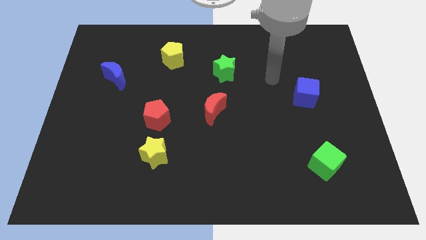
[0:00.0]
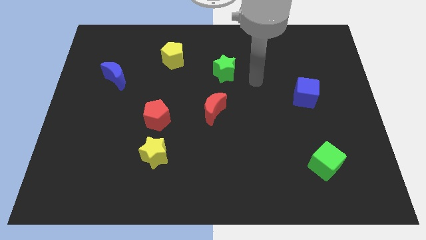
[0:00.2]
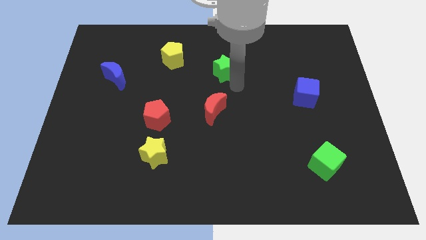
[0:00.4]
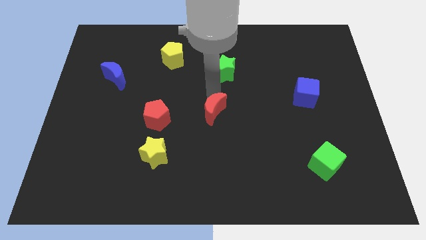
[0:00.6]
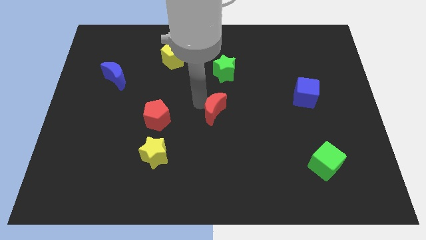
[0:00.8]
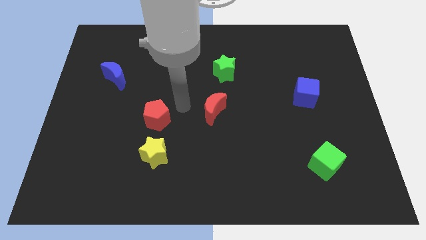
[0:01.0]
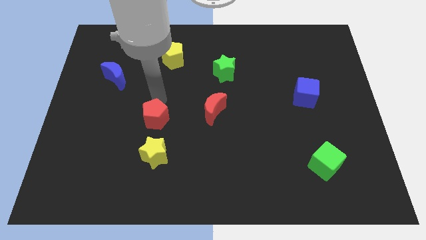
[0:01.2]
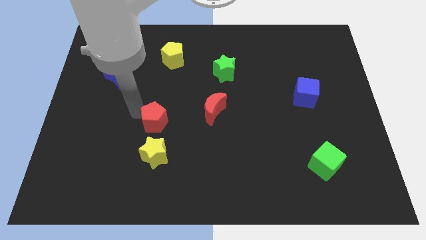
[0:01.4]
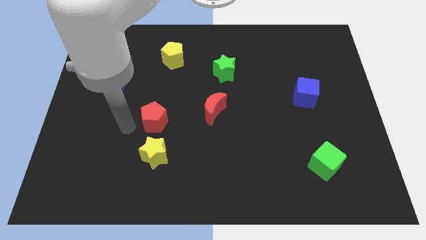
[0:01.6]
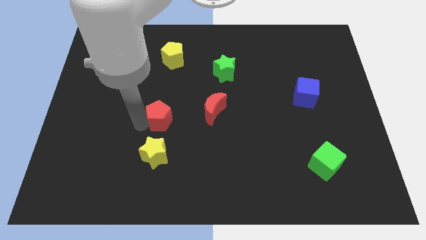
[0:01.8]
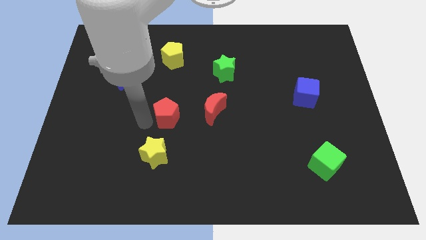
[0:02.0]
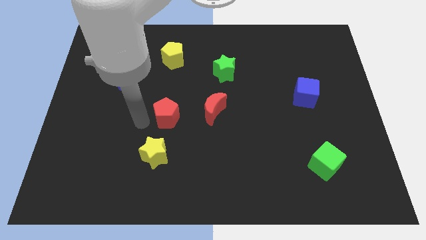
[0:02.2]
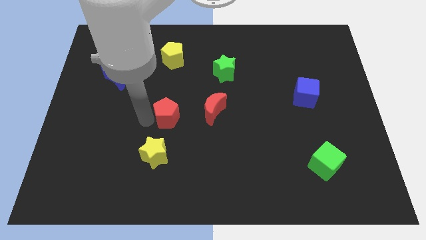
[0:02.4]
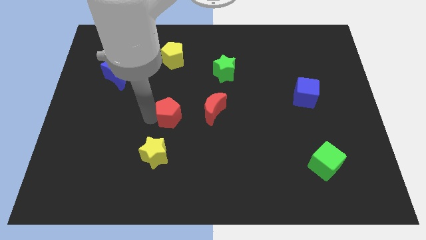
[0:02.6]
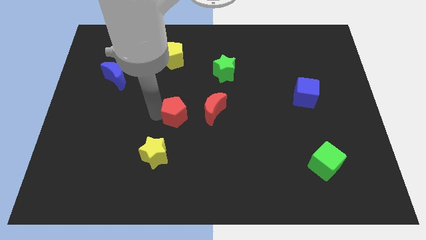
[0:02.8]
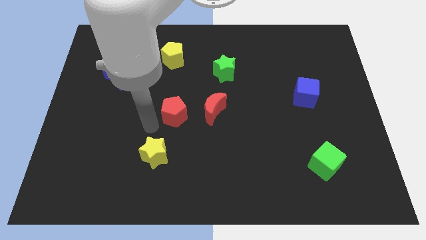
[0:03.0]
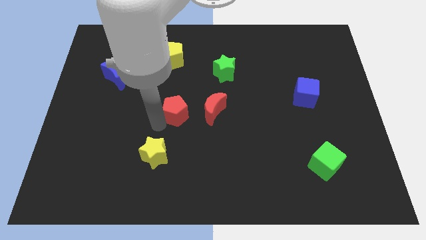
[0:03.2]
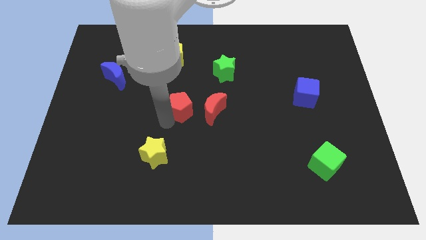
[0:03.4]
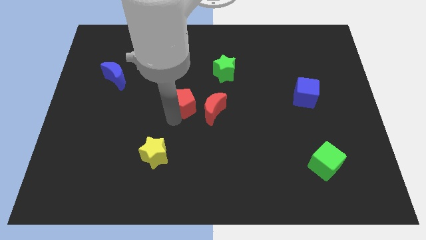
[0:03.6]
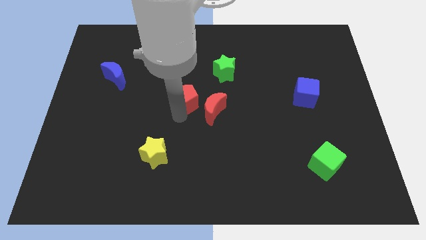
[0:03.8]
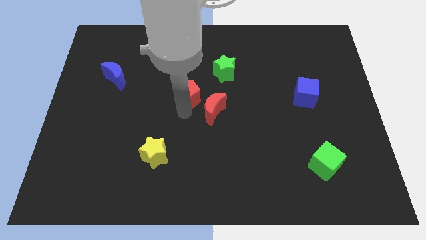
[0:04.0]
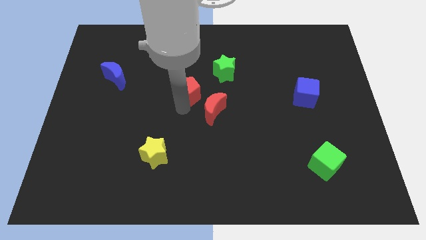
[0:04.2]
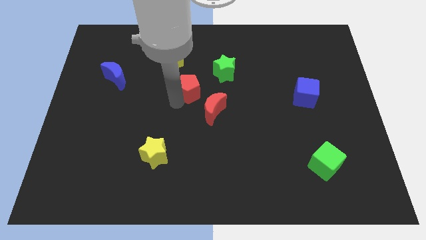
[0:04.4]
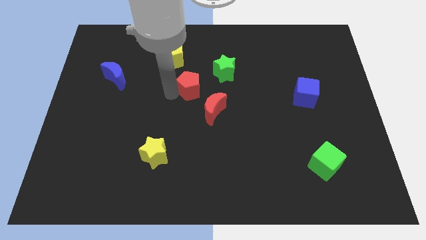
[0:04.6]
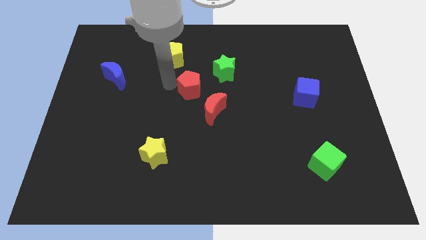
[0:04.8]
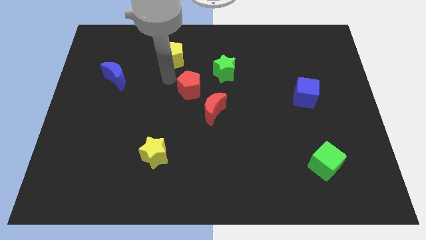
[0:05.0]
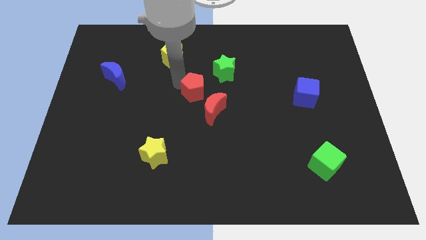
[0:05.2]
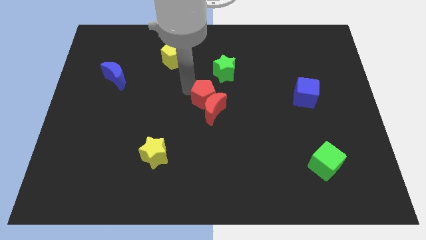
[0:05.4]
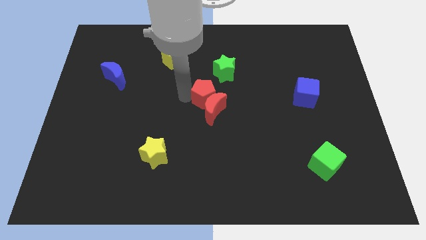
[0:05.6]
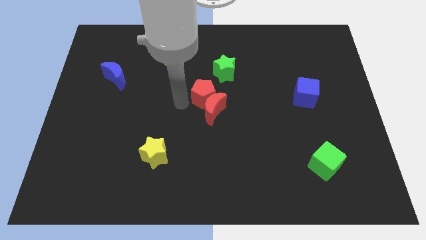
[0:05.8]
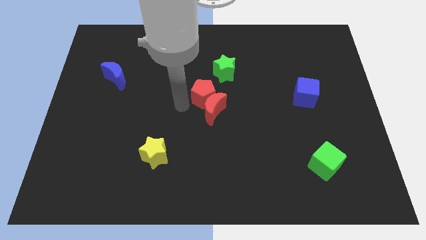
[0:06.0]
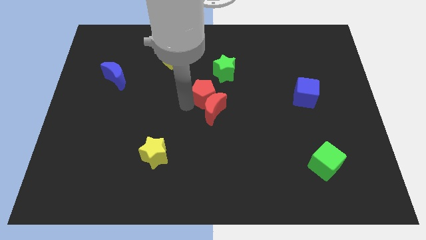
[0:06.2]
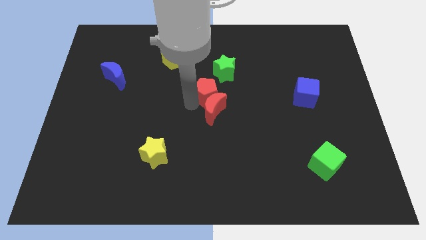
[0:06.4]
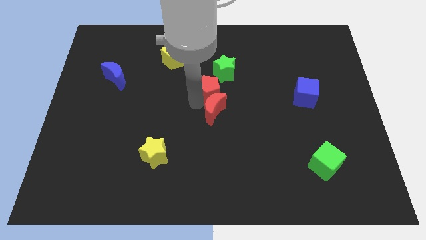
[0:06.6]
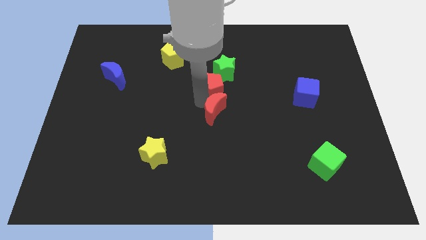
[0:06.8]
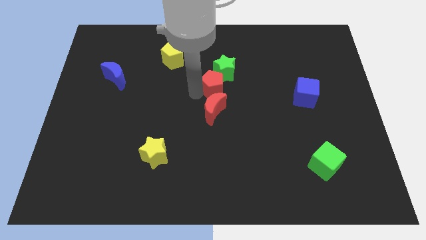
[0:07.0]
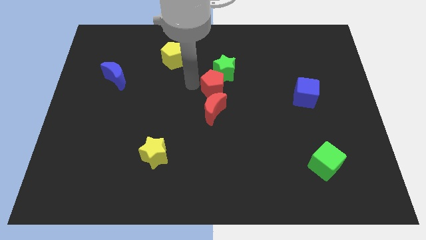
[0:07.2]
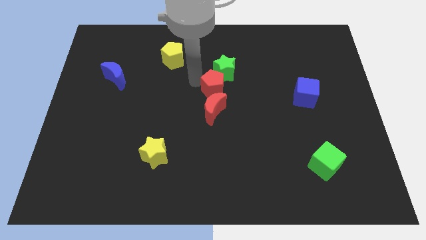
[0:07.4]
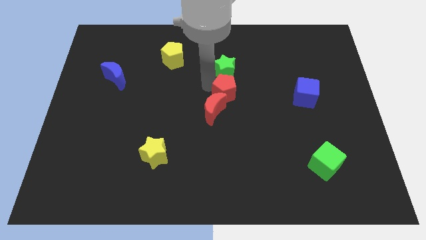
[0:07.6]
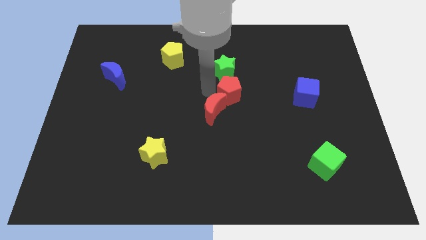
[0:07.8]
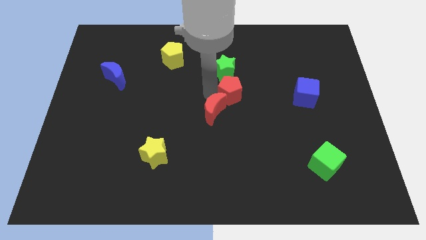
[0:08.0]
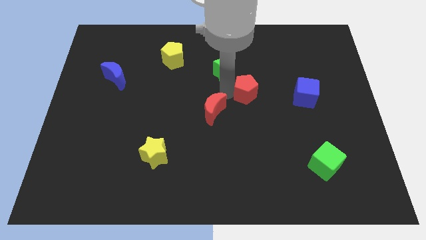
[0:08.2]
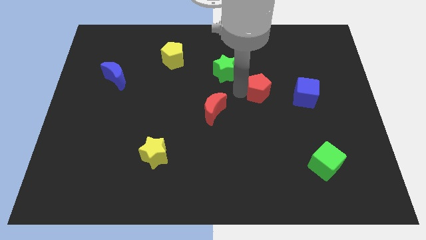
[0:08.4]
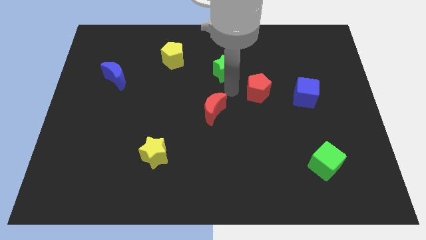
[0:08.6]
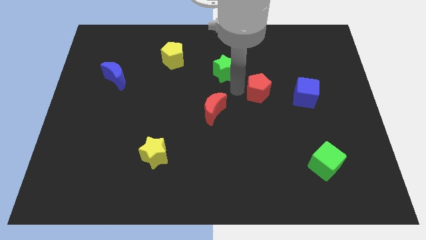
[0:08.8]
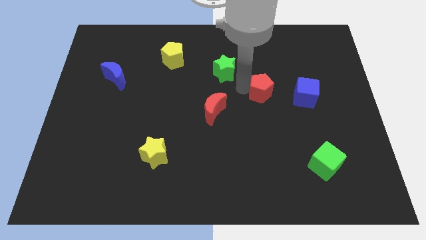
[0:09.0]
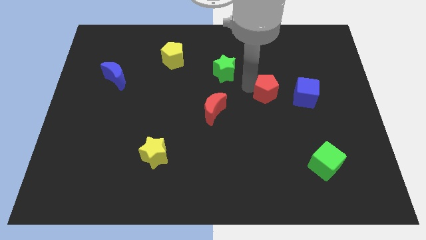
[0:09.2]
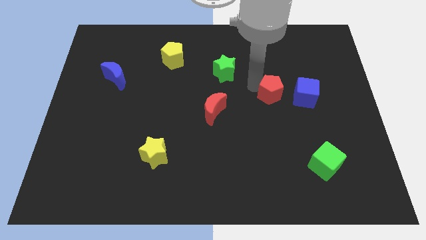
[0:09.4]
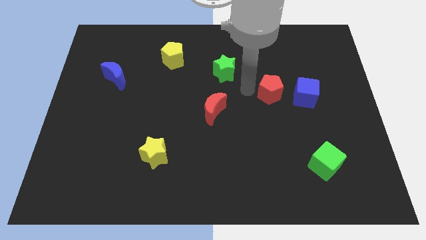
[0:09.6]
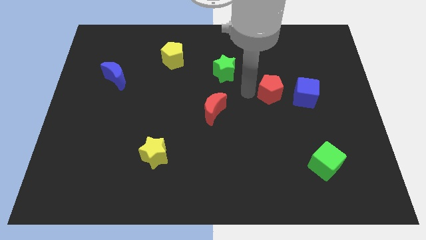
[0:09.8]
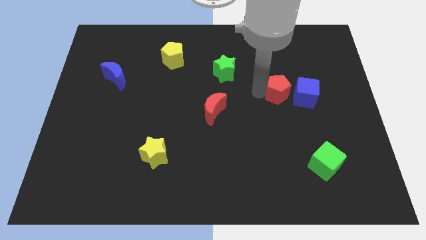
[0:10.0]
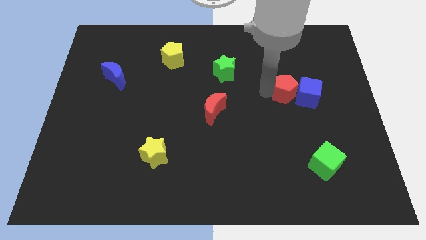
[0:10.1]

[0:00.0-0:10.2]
slide the red pentagon next to the blue cube

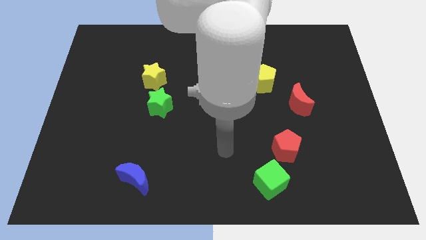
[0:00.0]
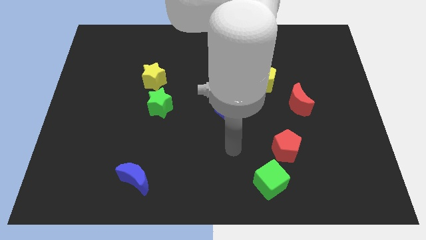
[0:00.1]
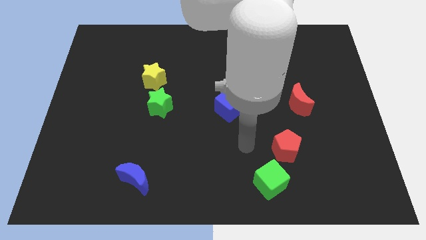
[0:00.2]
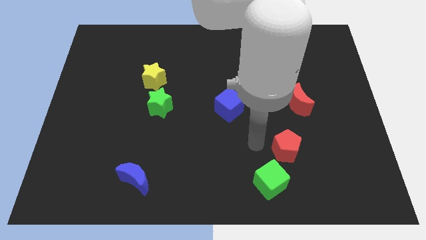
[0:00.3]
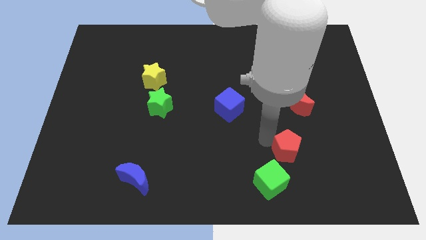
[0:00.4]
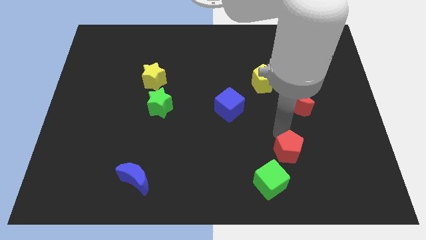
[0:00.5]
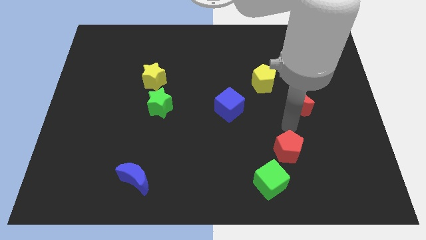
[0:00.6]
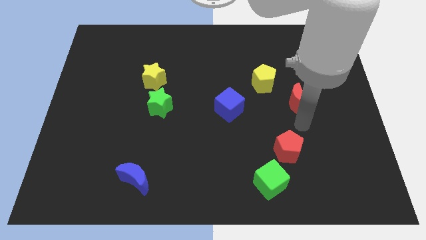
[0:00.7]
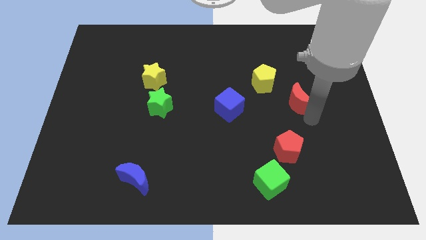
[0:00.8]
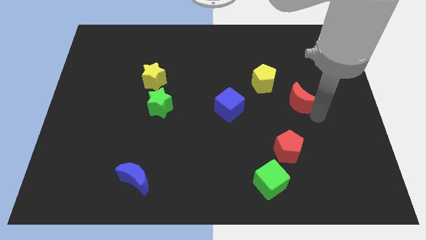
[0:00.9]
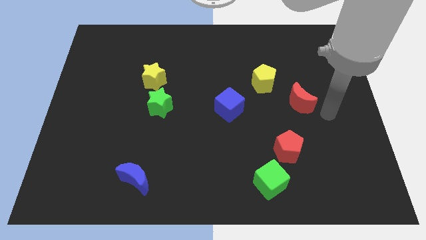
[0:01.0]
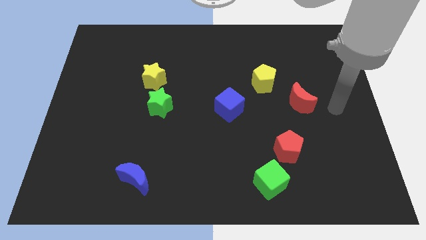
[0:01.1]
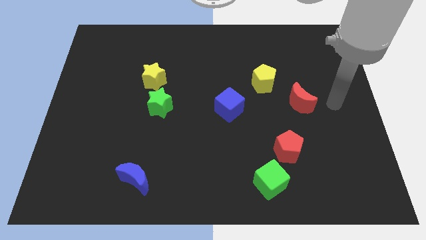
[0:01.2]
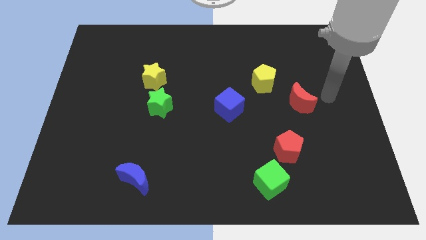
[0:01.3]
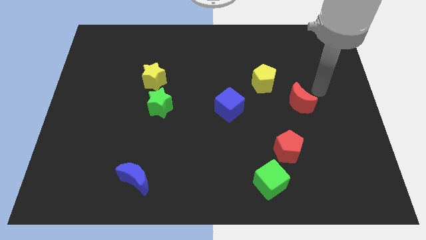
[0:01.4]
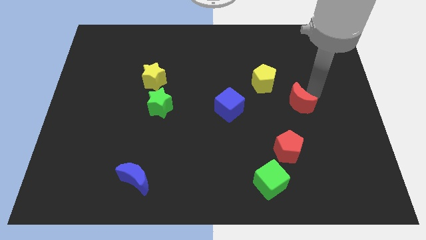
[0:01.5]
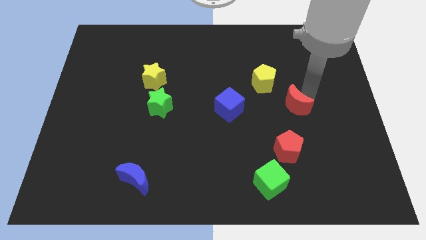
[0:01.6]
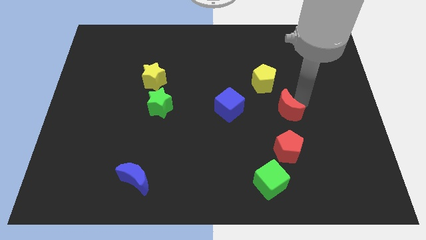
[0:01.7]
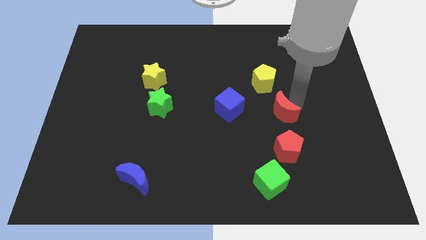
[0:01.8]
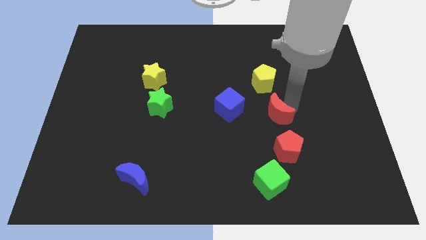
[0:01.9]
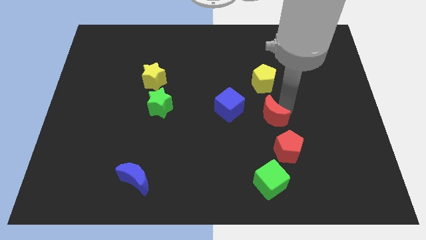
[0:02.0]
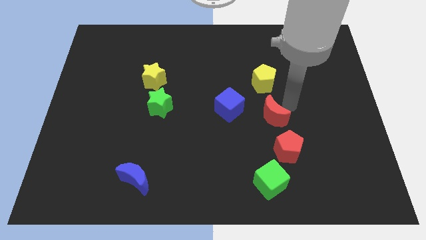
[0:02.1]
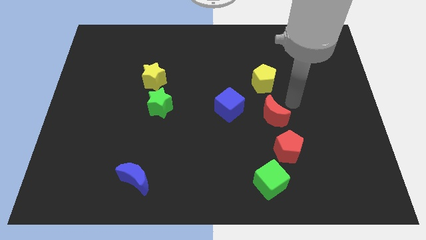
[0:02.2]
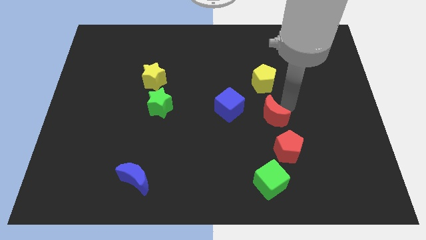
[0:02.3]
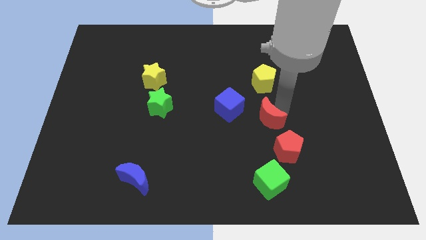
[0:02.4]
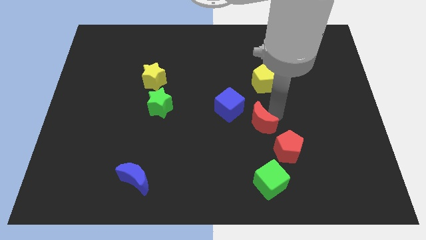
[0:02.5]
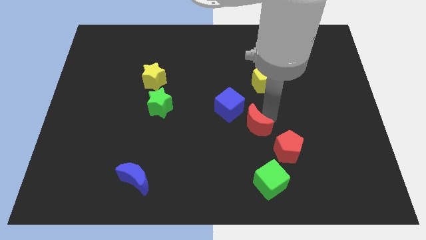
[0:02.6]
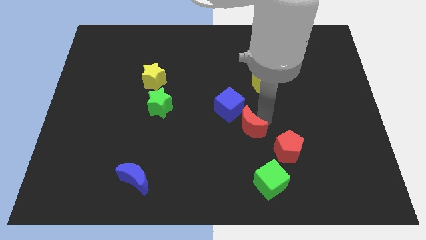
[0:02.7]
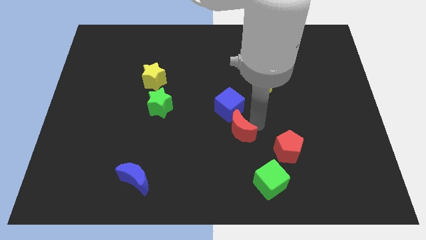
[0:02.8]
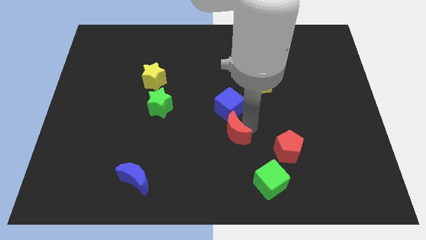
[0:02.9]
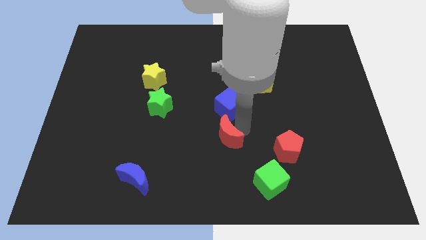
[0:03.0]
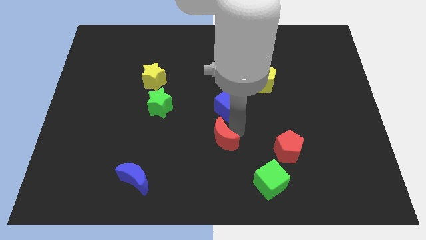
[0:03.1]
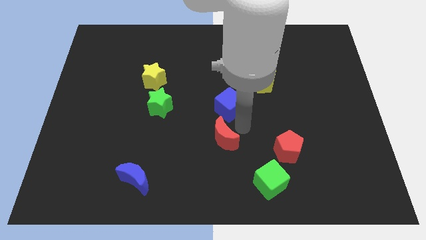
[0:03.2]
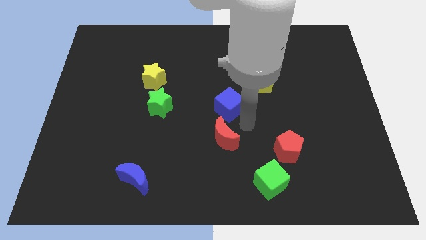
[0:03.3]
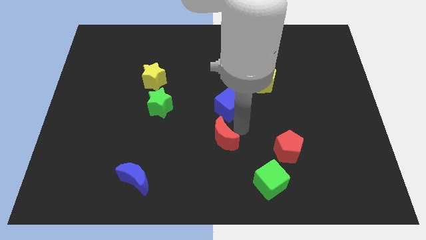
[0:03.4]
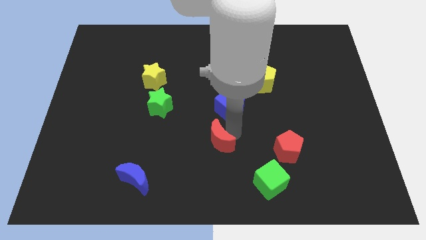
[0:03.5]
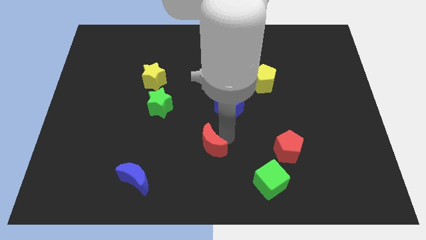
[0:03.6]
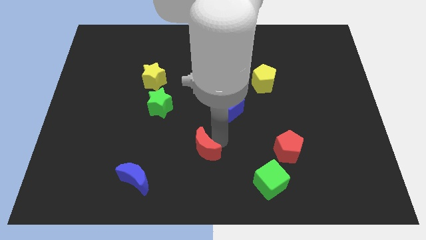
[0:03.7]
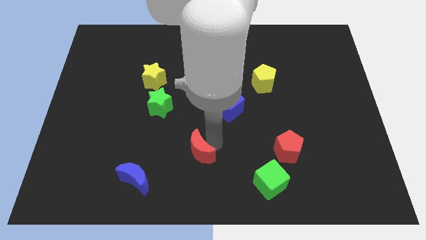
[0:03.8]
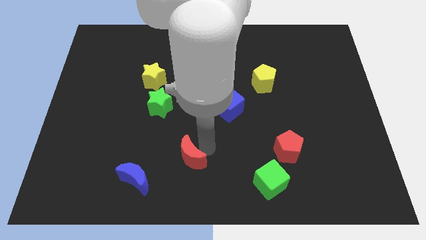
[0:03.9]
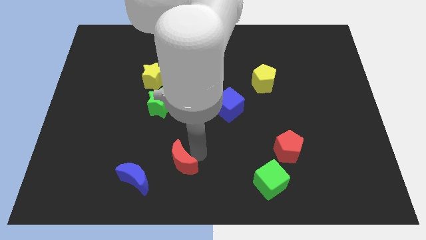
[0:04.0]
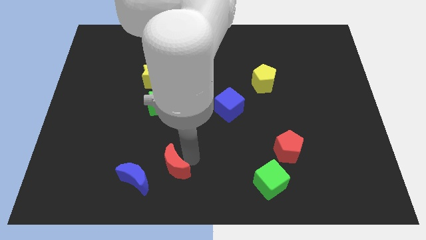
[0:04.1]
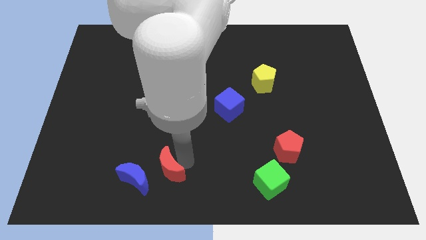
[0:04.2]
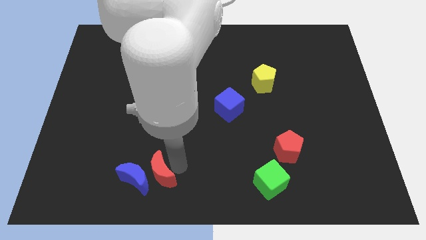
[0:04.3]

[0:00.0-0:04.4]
slide the red moon next to the blue moon
